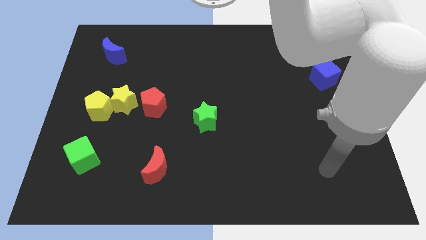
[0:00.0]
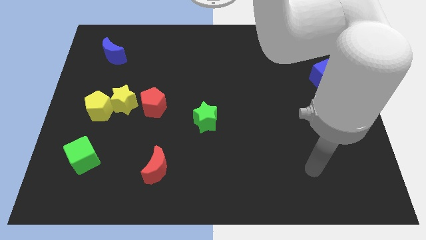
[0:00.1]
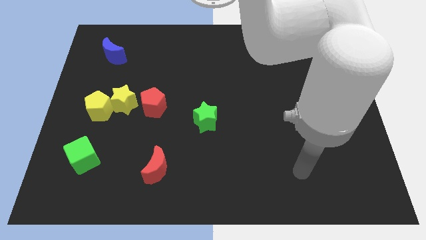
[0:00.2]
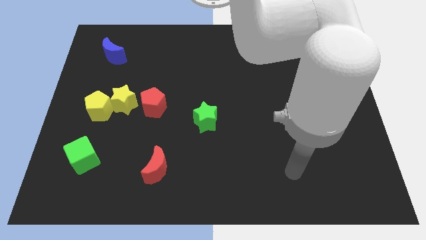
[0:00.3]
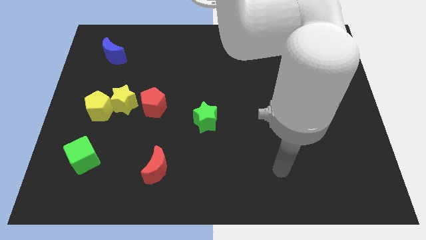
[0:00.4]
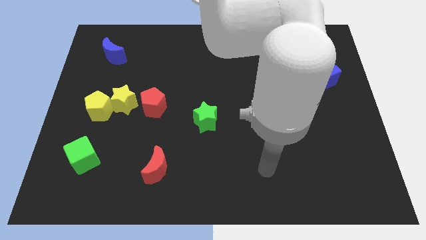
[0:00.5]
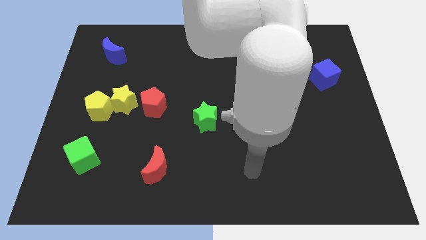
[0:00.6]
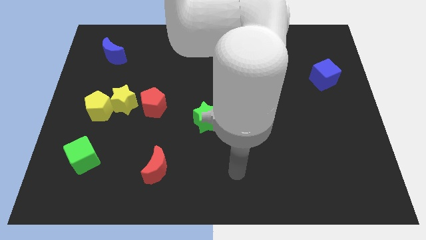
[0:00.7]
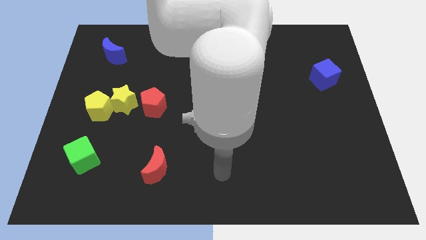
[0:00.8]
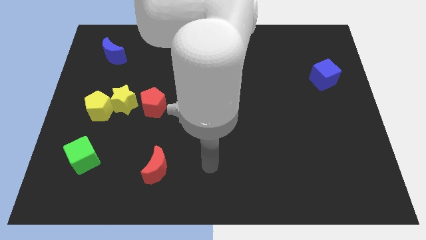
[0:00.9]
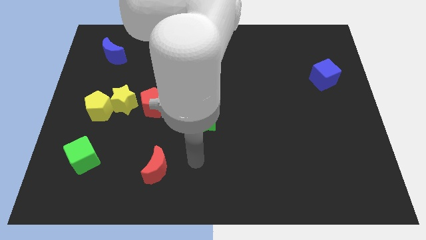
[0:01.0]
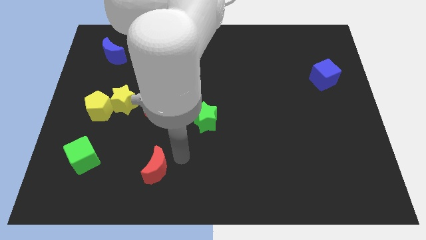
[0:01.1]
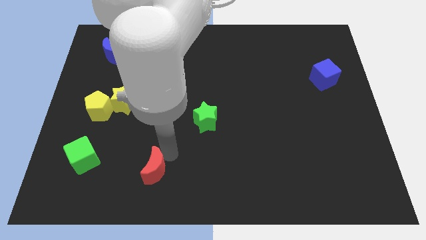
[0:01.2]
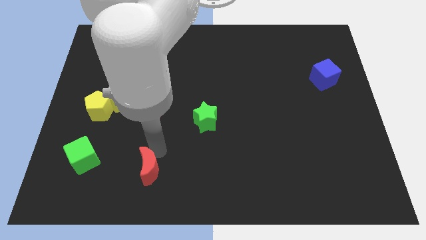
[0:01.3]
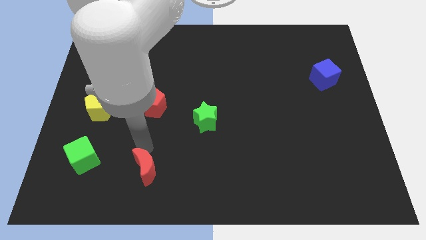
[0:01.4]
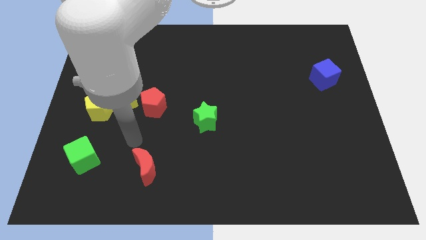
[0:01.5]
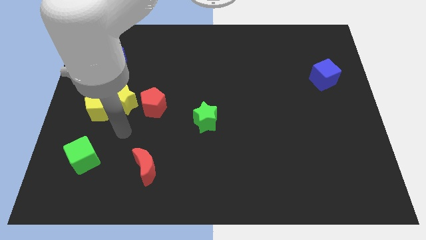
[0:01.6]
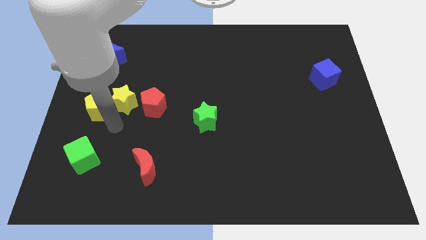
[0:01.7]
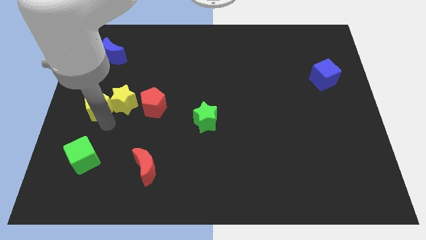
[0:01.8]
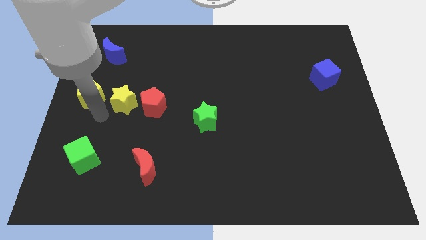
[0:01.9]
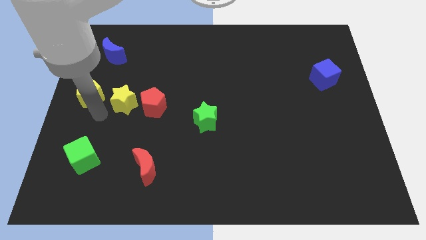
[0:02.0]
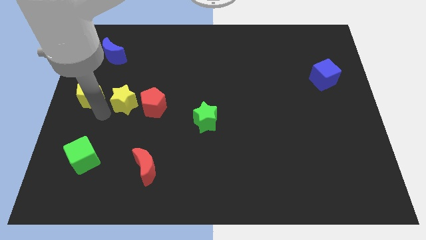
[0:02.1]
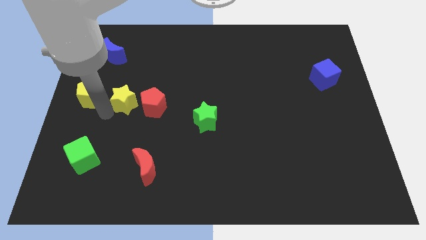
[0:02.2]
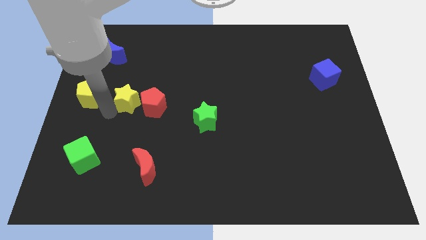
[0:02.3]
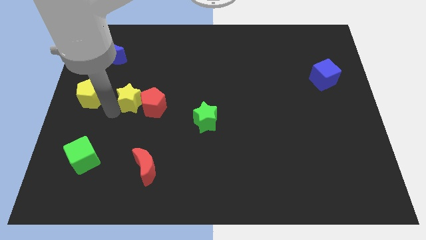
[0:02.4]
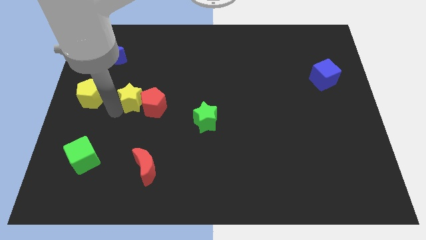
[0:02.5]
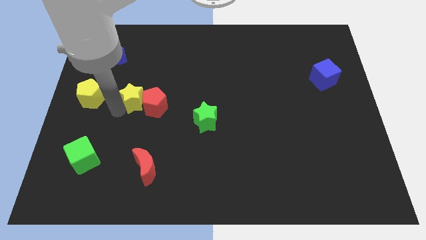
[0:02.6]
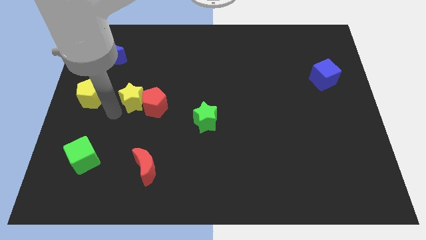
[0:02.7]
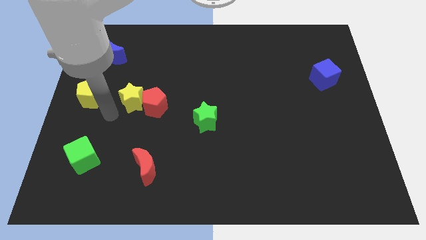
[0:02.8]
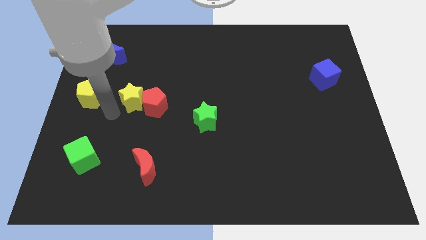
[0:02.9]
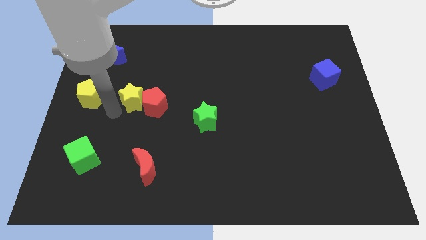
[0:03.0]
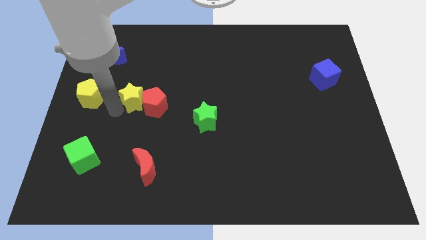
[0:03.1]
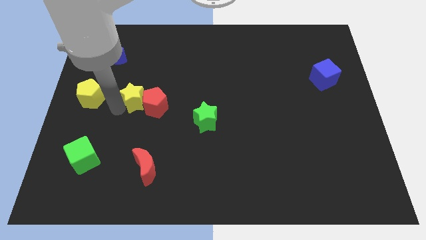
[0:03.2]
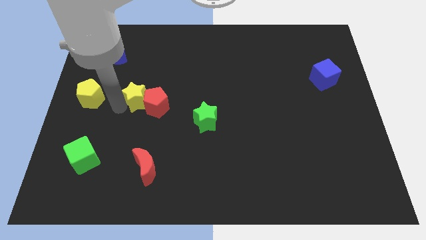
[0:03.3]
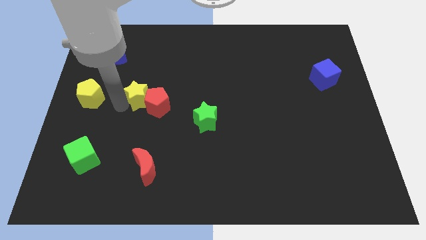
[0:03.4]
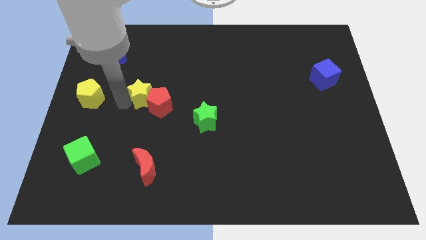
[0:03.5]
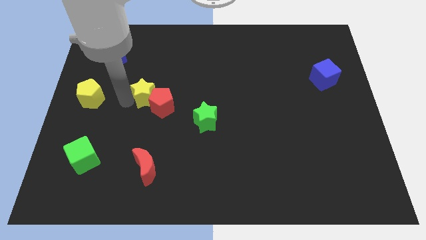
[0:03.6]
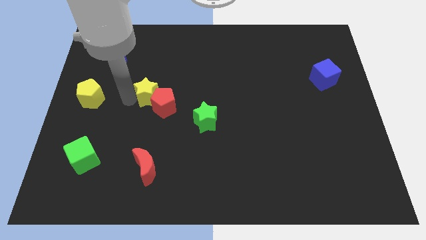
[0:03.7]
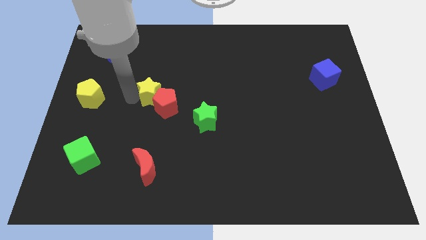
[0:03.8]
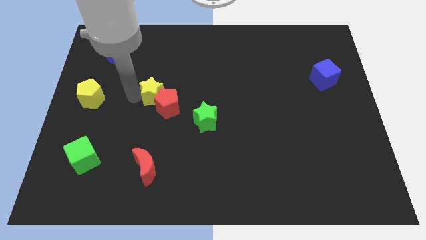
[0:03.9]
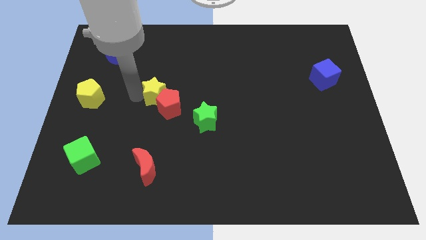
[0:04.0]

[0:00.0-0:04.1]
slide the yellow star to the right a little bit

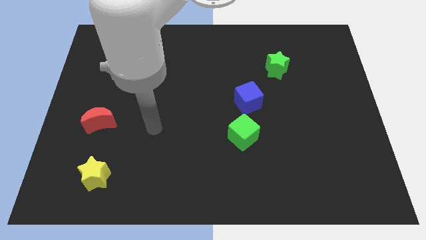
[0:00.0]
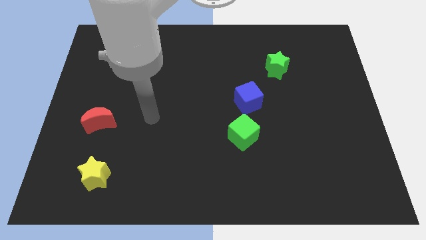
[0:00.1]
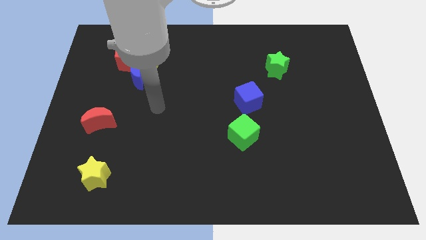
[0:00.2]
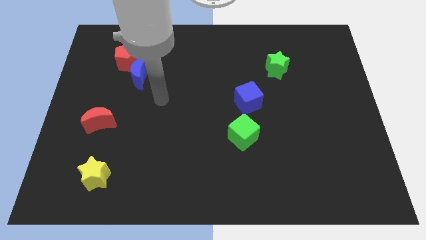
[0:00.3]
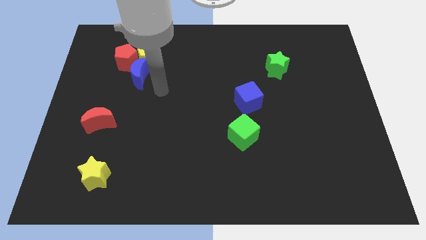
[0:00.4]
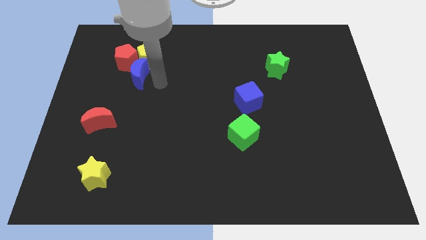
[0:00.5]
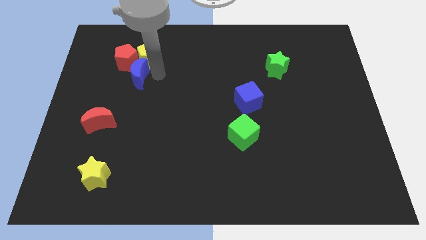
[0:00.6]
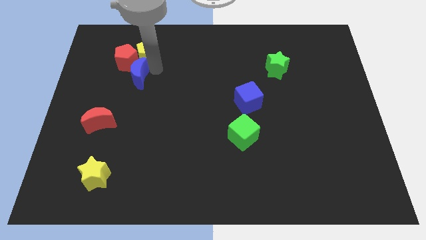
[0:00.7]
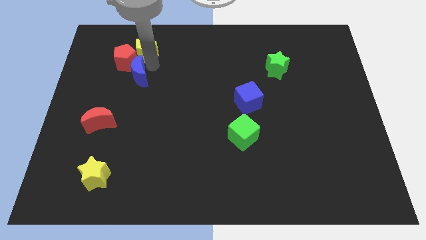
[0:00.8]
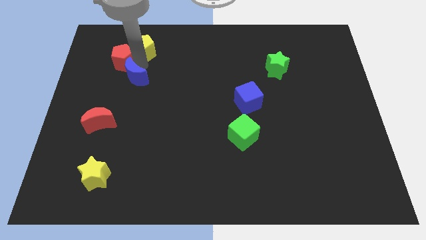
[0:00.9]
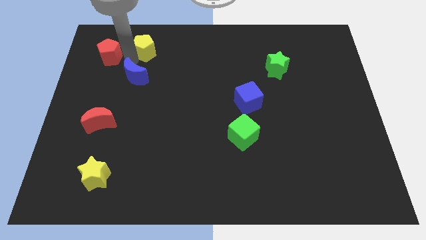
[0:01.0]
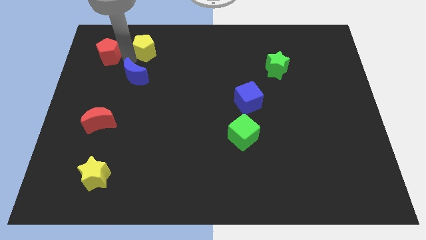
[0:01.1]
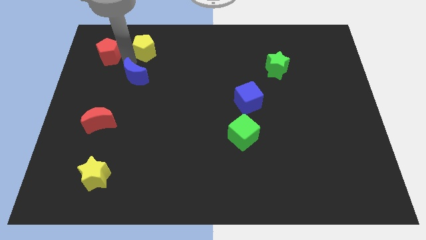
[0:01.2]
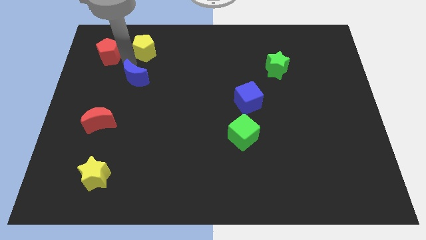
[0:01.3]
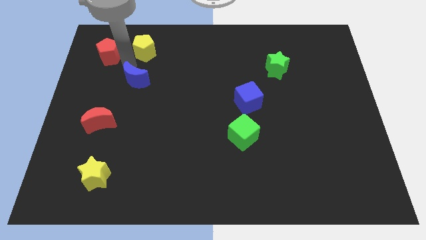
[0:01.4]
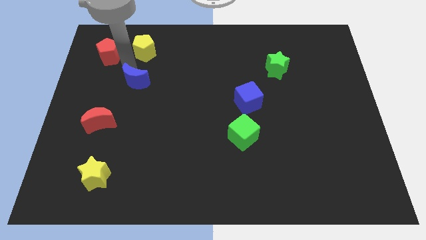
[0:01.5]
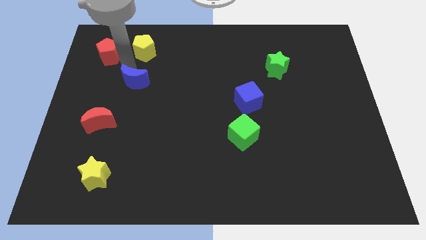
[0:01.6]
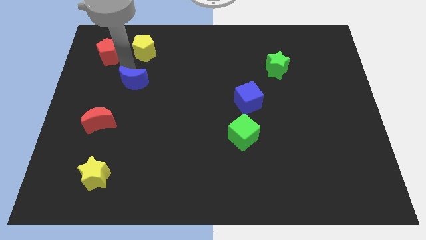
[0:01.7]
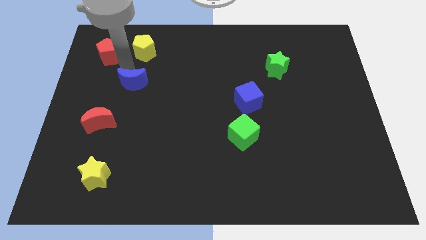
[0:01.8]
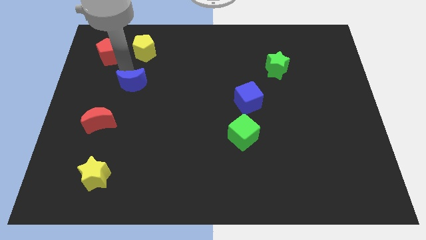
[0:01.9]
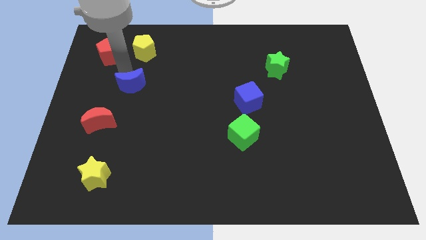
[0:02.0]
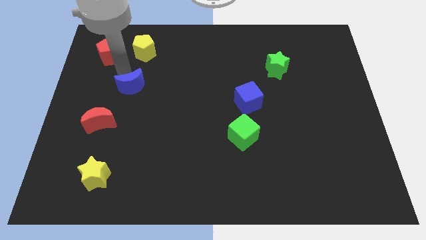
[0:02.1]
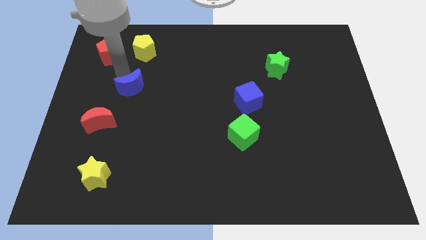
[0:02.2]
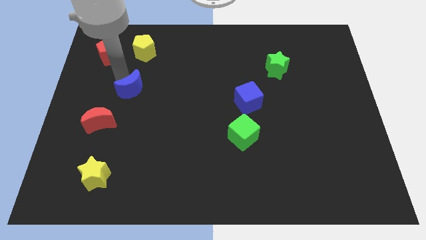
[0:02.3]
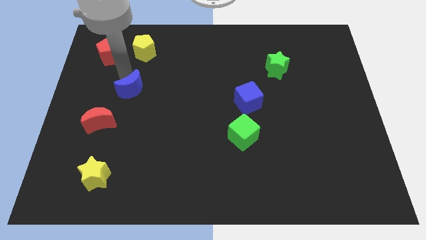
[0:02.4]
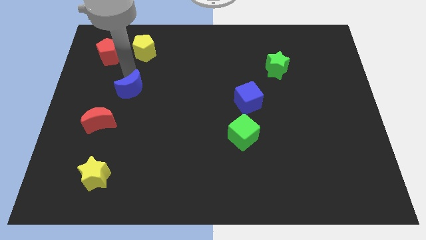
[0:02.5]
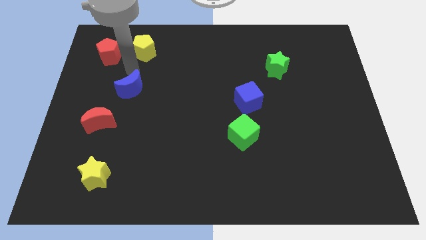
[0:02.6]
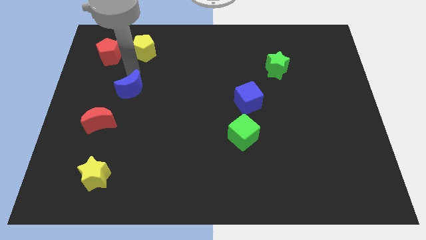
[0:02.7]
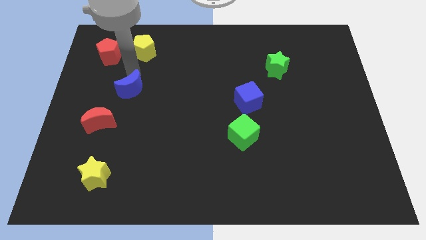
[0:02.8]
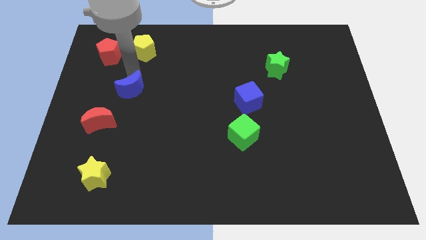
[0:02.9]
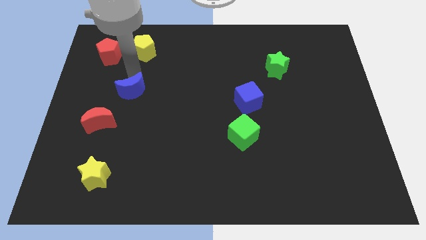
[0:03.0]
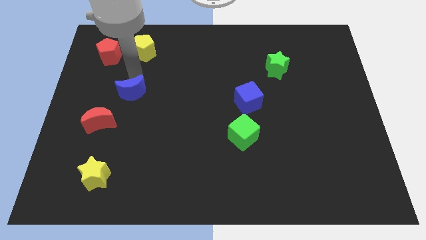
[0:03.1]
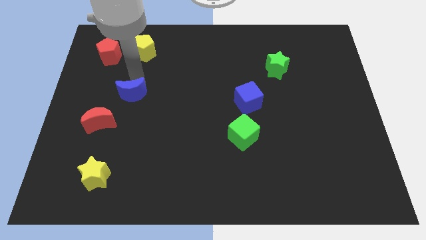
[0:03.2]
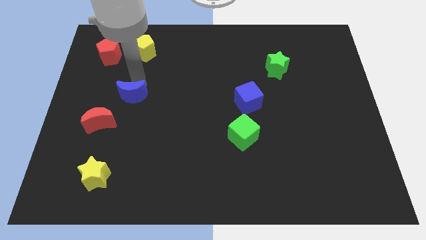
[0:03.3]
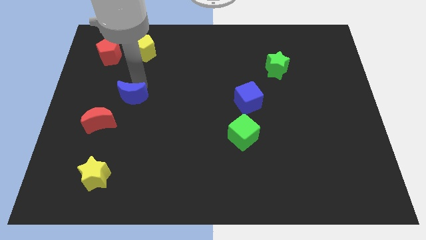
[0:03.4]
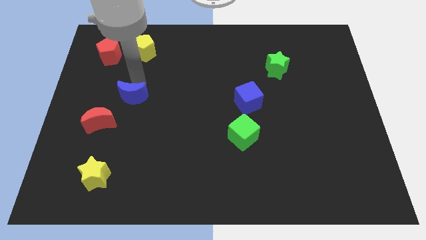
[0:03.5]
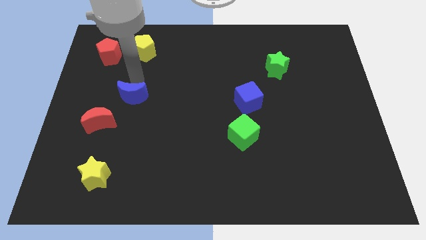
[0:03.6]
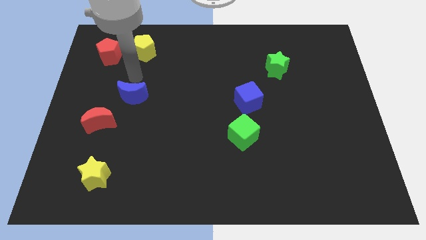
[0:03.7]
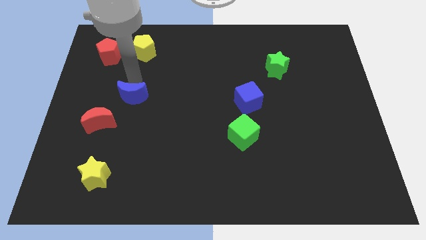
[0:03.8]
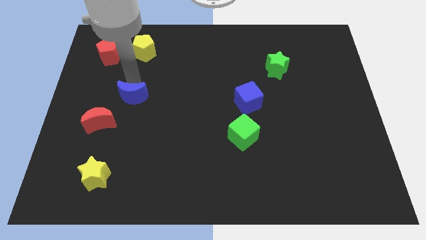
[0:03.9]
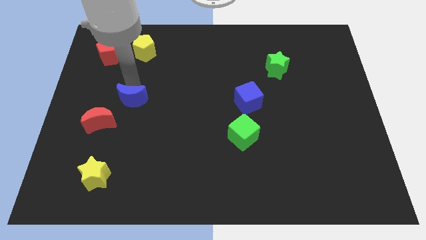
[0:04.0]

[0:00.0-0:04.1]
move the blue moon a little bit downwards
